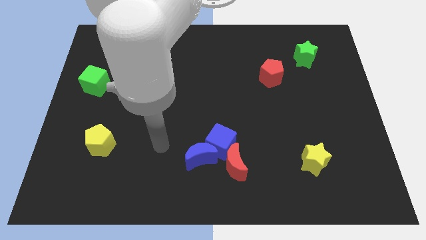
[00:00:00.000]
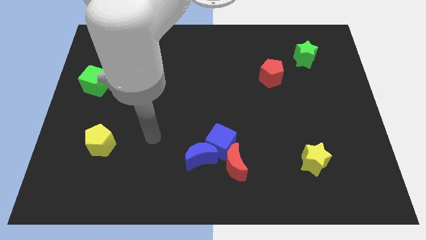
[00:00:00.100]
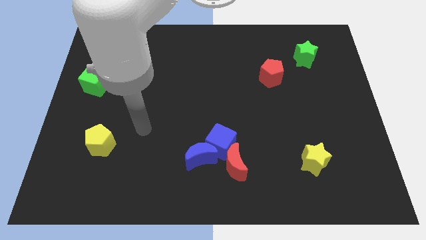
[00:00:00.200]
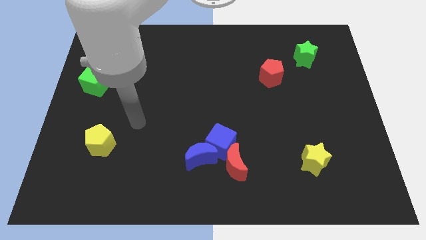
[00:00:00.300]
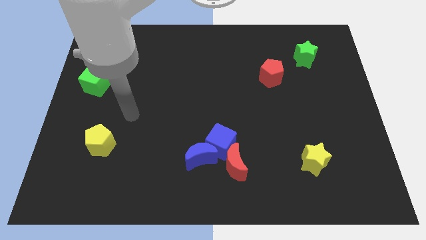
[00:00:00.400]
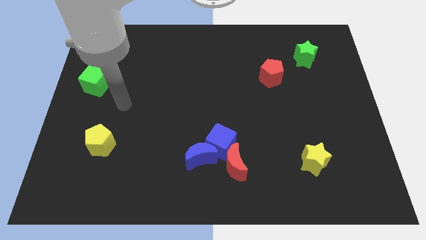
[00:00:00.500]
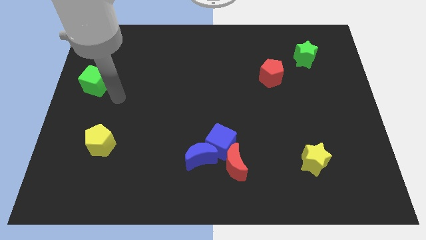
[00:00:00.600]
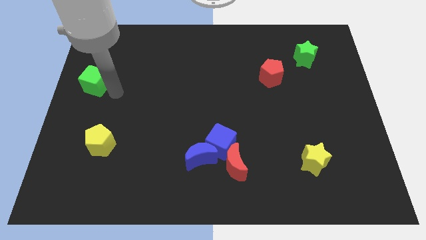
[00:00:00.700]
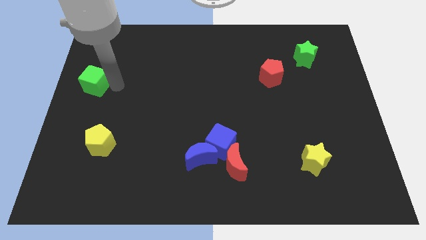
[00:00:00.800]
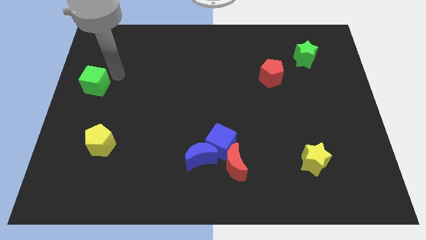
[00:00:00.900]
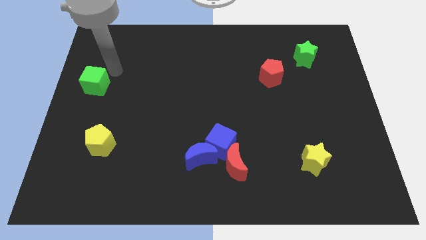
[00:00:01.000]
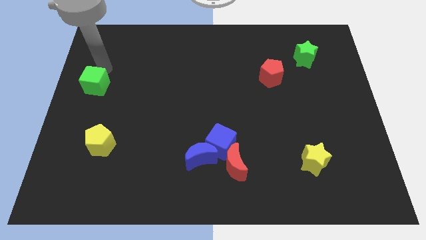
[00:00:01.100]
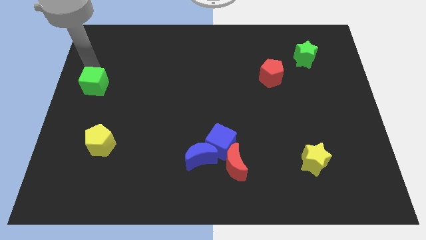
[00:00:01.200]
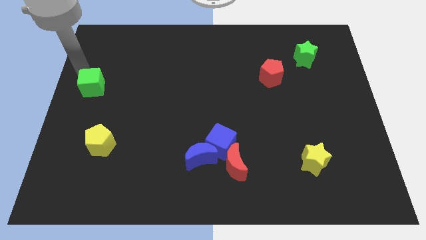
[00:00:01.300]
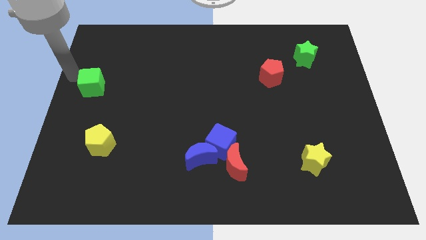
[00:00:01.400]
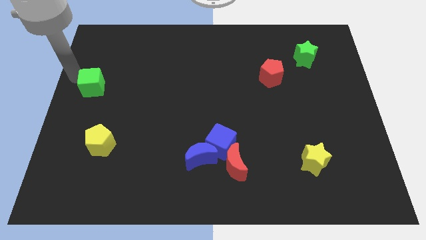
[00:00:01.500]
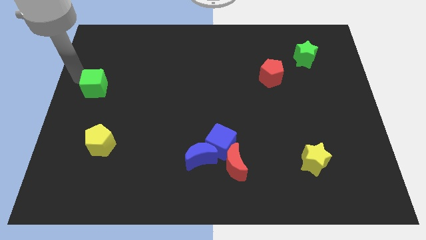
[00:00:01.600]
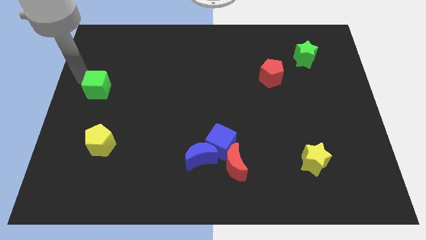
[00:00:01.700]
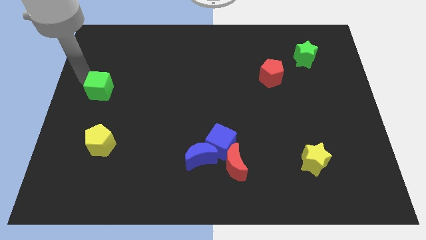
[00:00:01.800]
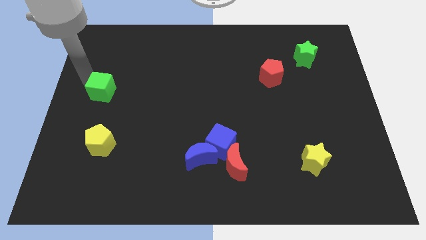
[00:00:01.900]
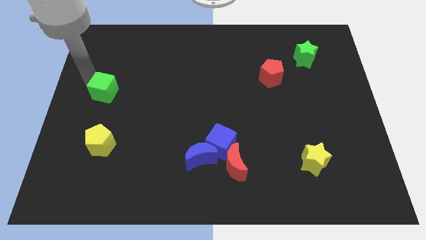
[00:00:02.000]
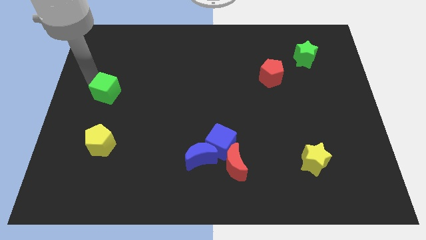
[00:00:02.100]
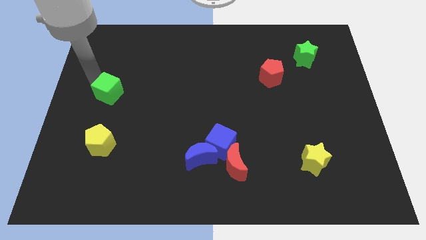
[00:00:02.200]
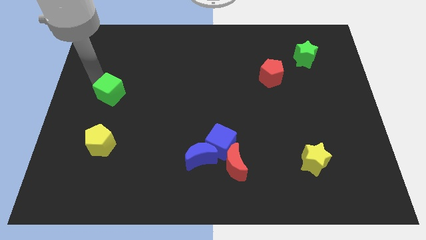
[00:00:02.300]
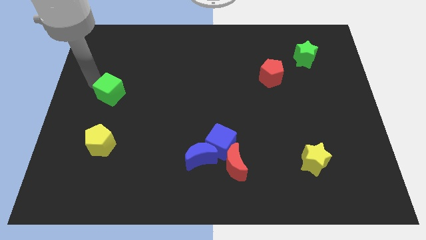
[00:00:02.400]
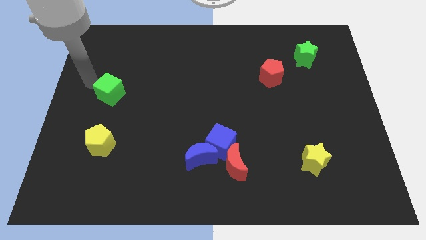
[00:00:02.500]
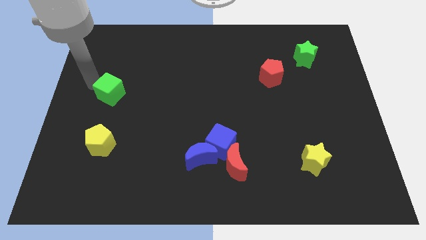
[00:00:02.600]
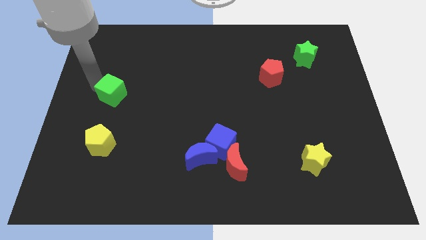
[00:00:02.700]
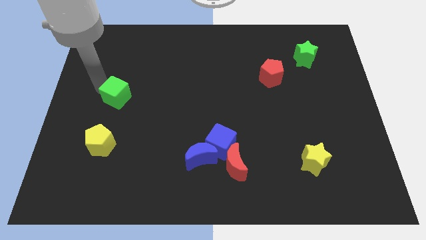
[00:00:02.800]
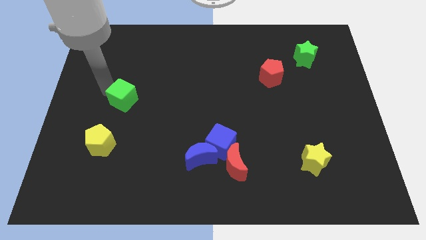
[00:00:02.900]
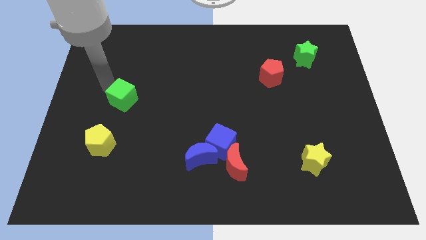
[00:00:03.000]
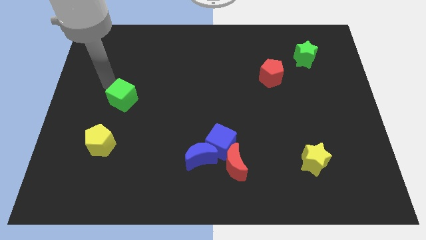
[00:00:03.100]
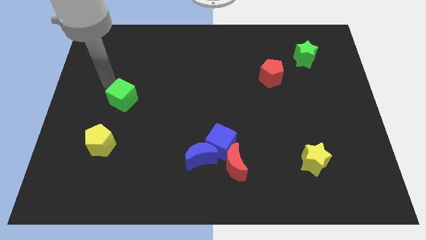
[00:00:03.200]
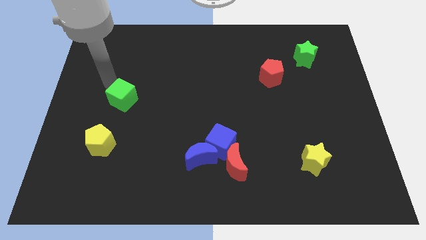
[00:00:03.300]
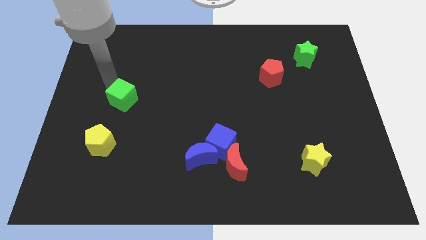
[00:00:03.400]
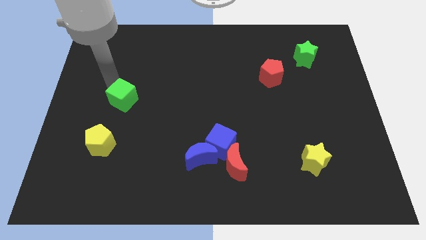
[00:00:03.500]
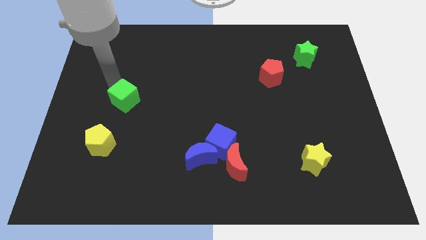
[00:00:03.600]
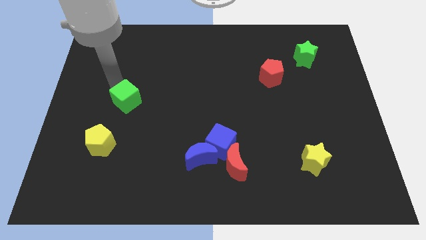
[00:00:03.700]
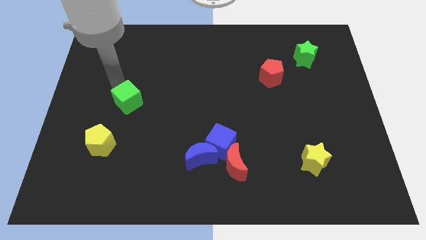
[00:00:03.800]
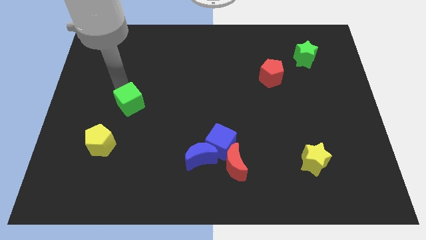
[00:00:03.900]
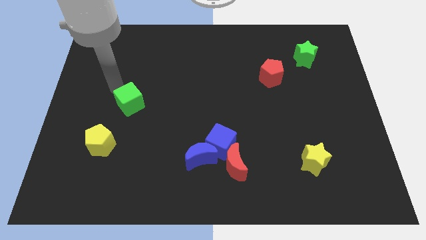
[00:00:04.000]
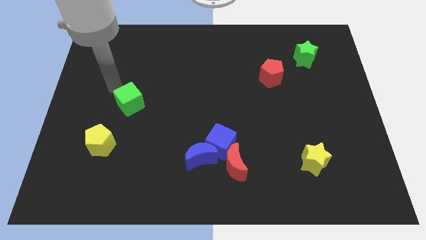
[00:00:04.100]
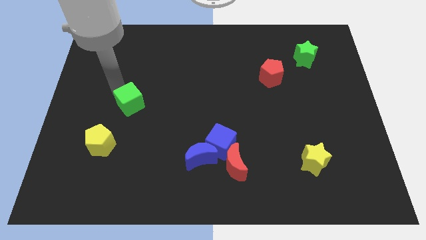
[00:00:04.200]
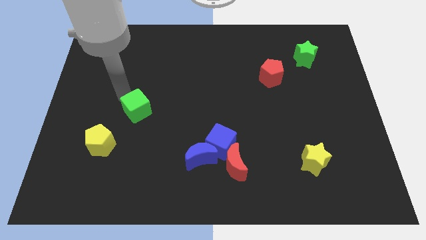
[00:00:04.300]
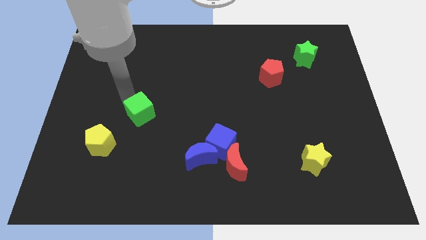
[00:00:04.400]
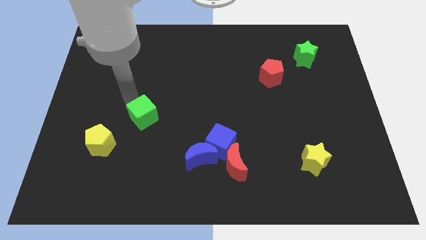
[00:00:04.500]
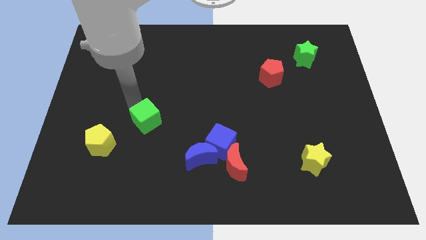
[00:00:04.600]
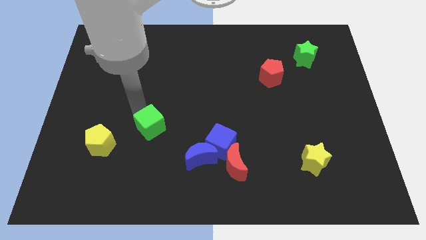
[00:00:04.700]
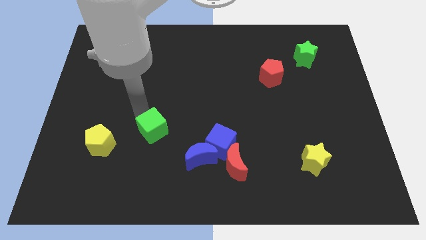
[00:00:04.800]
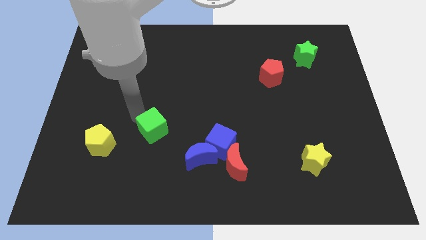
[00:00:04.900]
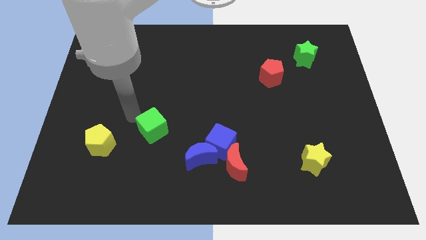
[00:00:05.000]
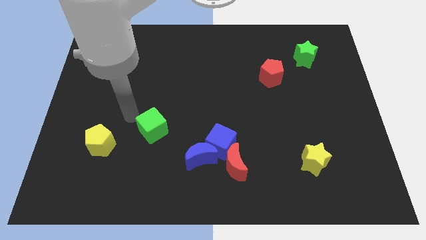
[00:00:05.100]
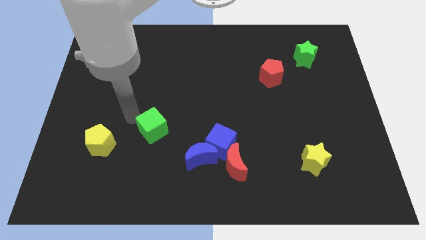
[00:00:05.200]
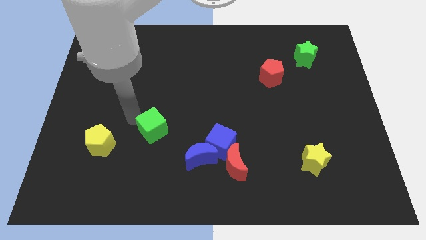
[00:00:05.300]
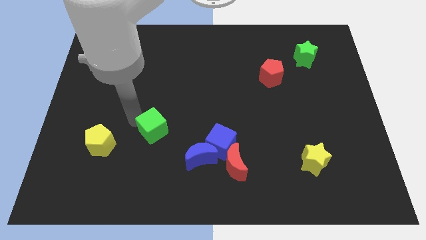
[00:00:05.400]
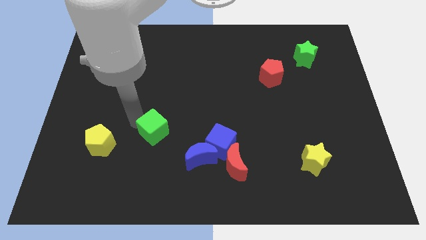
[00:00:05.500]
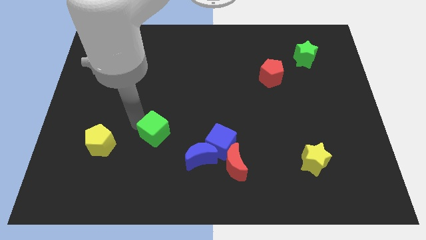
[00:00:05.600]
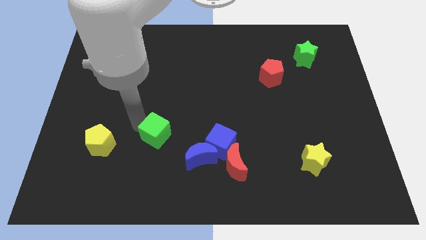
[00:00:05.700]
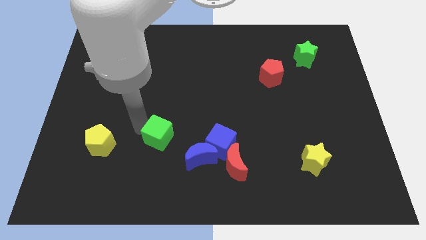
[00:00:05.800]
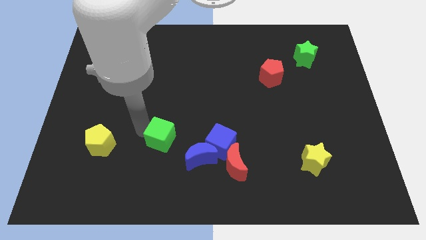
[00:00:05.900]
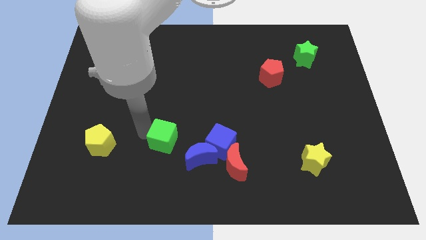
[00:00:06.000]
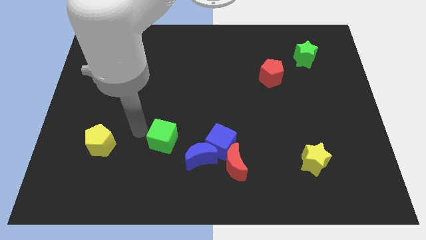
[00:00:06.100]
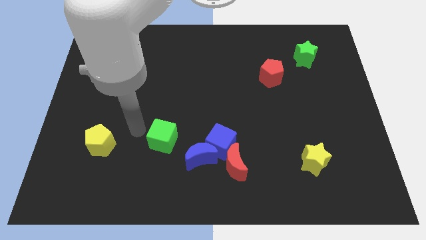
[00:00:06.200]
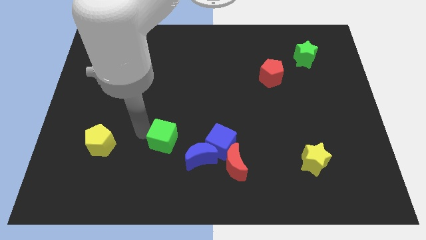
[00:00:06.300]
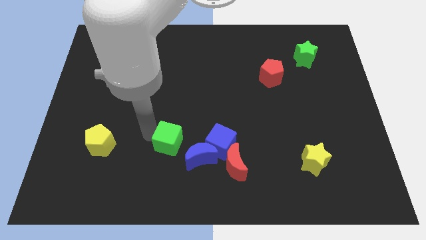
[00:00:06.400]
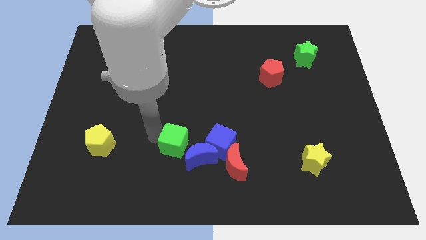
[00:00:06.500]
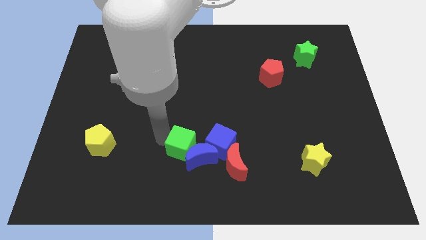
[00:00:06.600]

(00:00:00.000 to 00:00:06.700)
slide the green cube close to the blue moon
